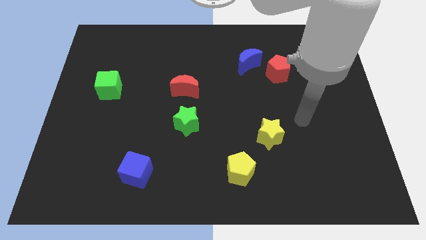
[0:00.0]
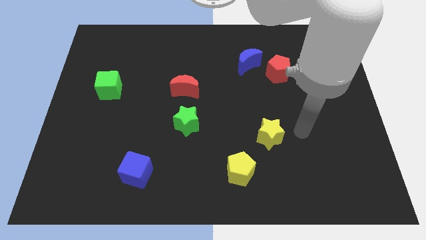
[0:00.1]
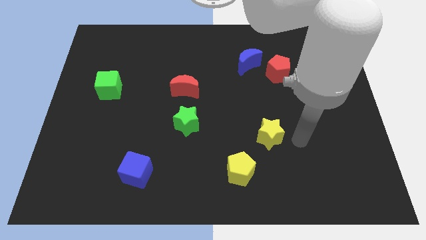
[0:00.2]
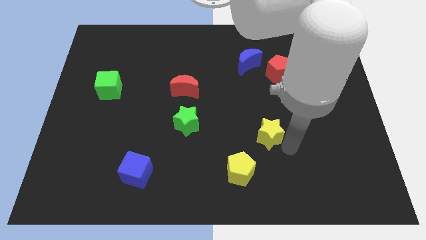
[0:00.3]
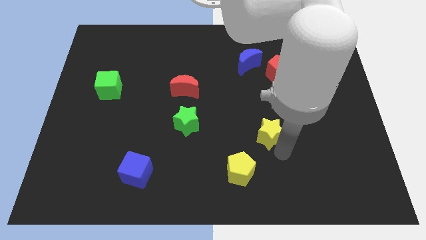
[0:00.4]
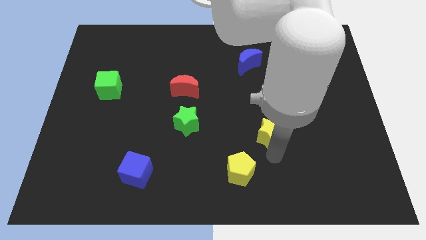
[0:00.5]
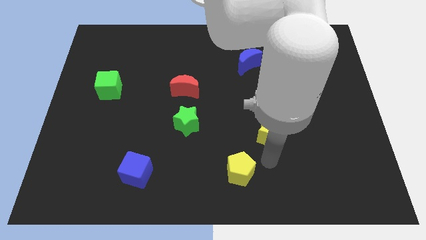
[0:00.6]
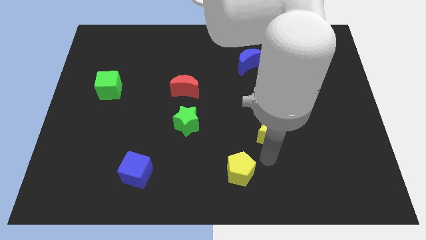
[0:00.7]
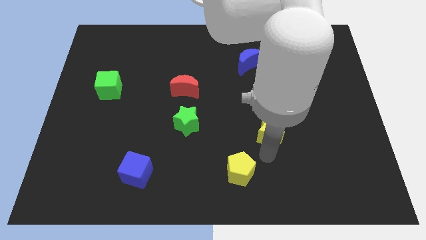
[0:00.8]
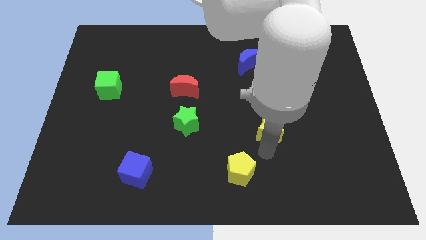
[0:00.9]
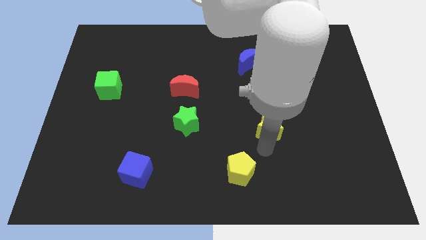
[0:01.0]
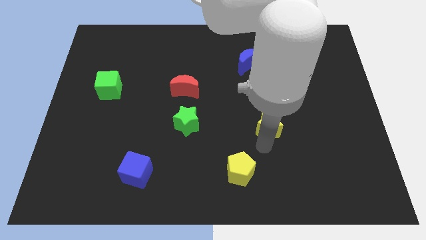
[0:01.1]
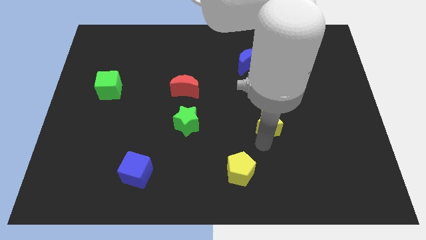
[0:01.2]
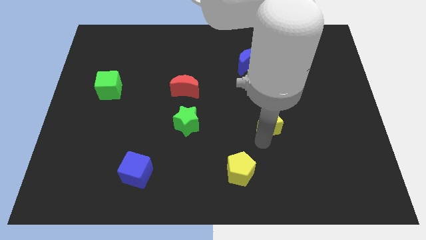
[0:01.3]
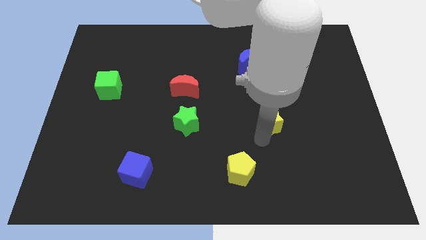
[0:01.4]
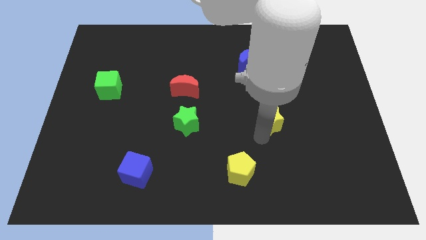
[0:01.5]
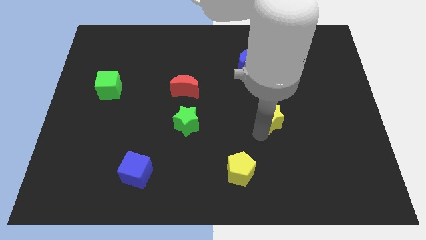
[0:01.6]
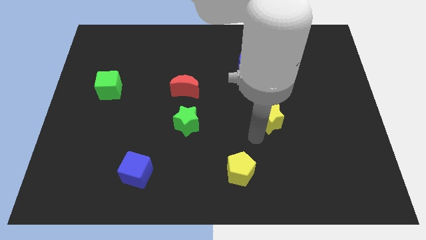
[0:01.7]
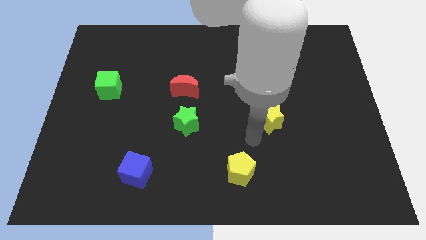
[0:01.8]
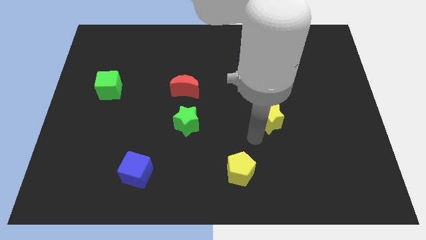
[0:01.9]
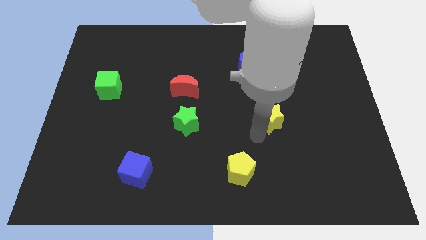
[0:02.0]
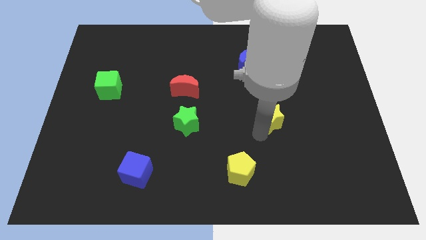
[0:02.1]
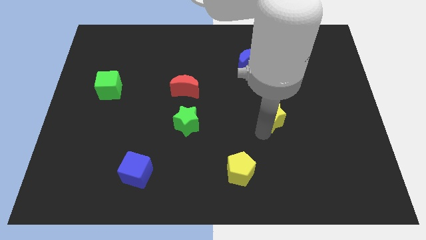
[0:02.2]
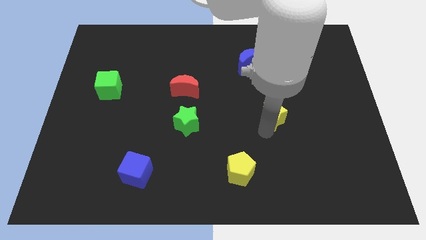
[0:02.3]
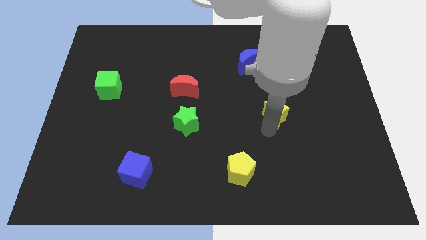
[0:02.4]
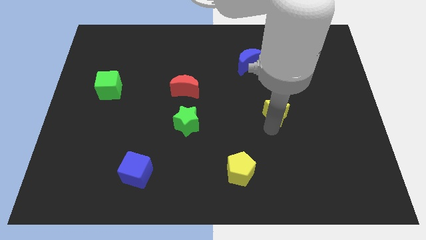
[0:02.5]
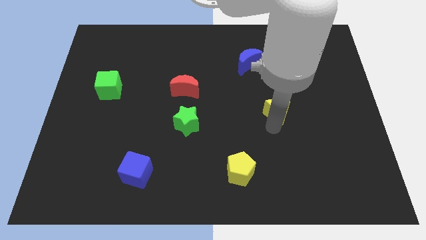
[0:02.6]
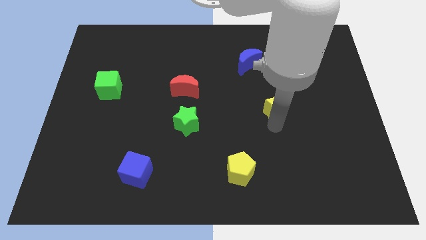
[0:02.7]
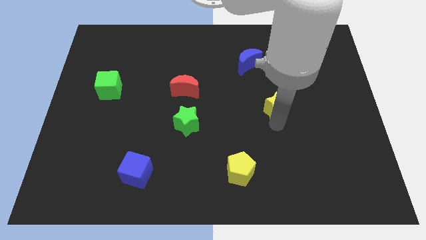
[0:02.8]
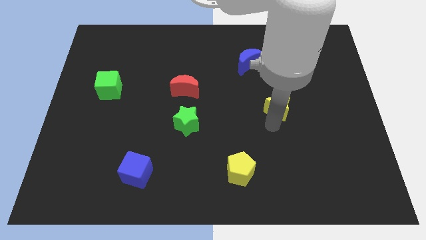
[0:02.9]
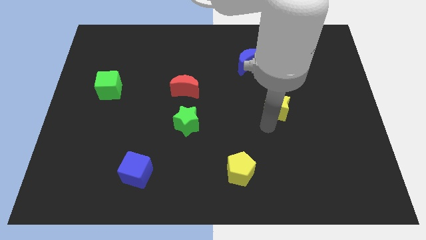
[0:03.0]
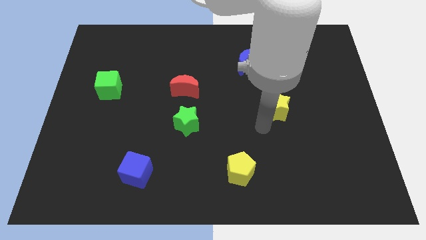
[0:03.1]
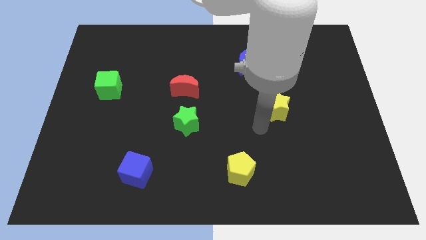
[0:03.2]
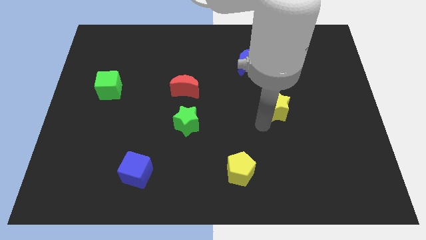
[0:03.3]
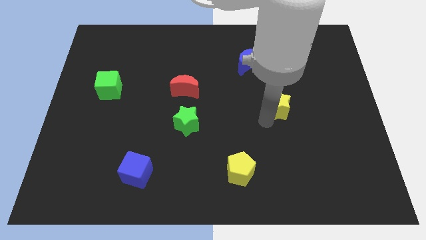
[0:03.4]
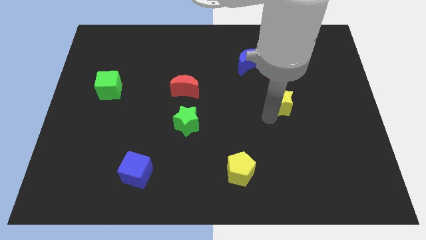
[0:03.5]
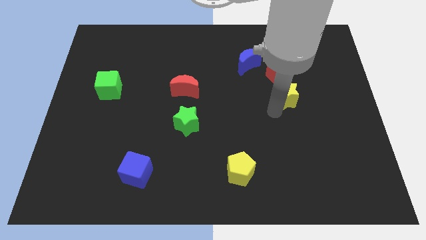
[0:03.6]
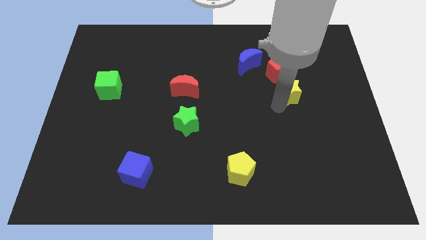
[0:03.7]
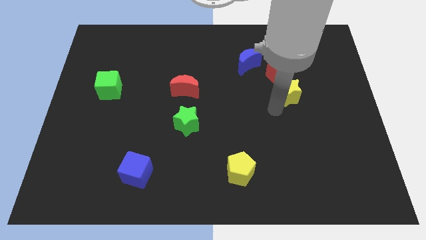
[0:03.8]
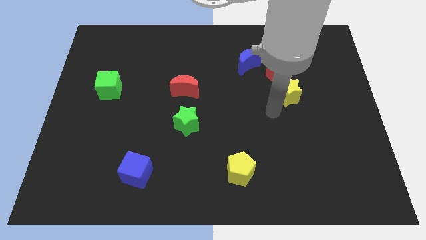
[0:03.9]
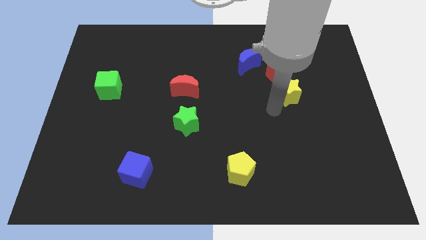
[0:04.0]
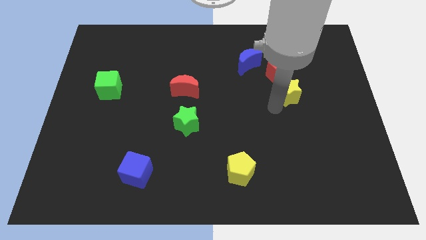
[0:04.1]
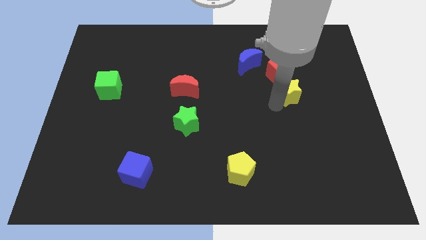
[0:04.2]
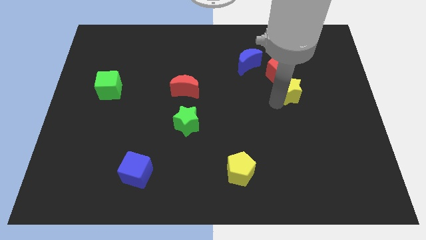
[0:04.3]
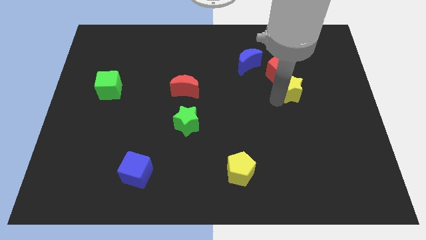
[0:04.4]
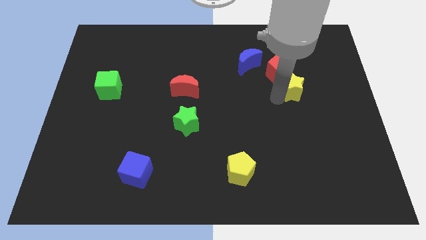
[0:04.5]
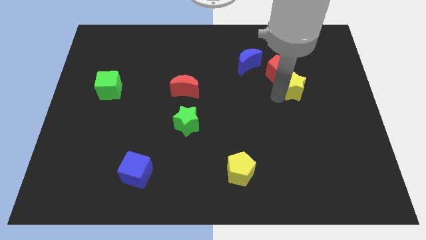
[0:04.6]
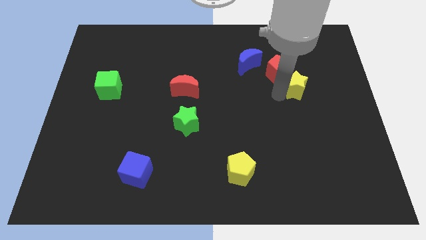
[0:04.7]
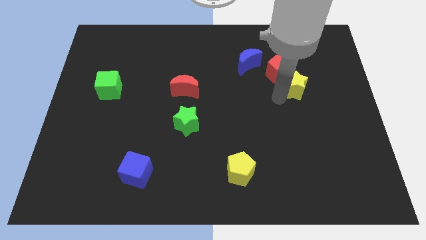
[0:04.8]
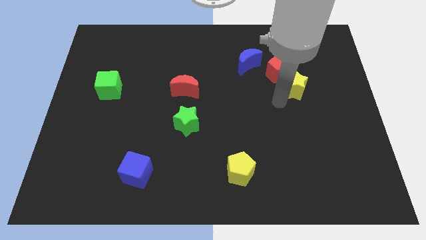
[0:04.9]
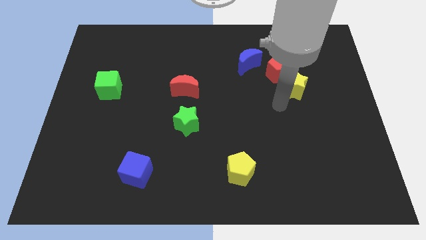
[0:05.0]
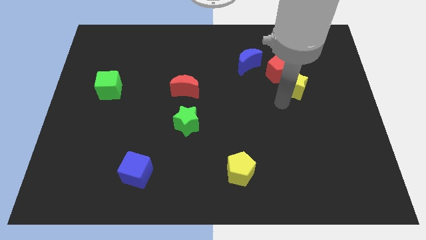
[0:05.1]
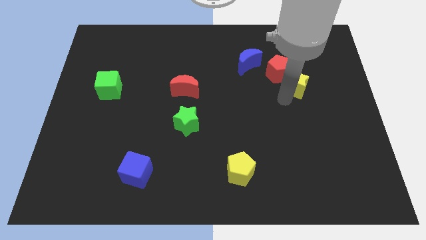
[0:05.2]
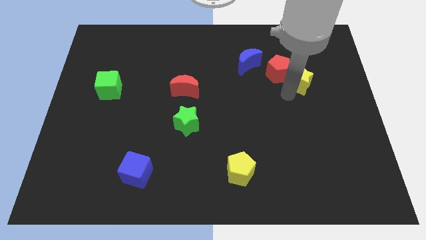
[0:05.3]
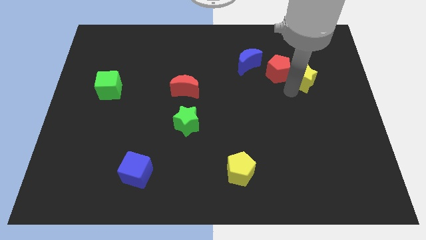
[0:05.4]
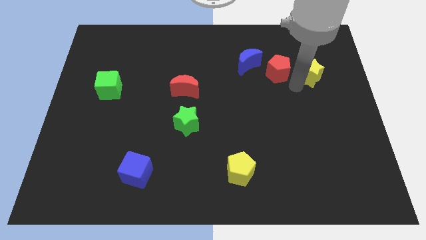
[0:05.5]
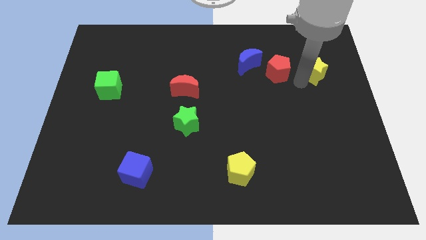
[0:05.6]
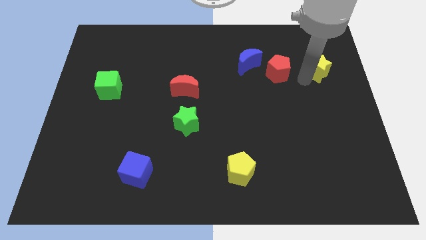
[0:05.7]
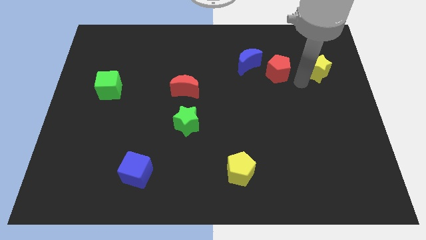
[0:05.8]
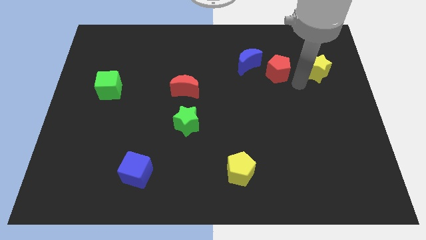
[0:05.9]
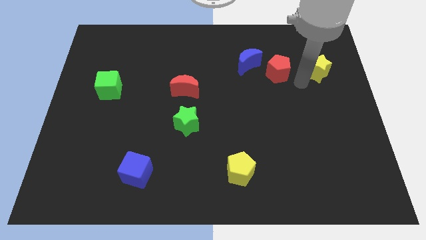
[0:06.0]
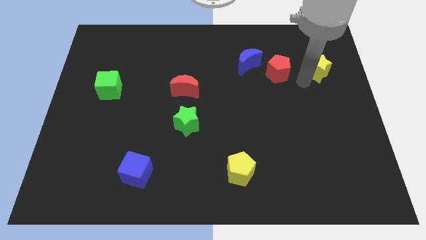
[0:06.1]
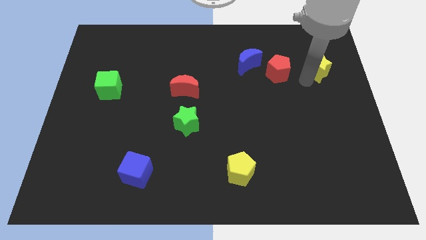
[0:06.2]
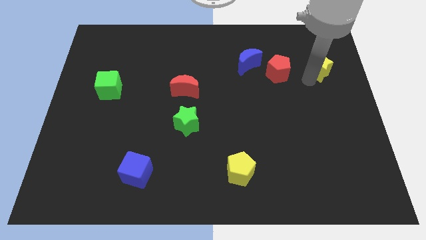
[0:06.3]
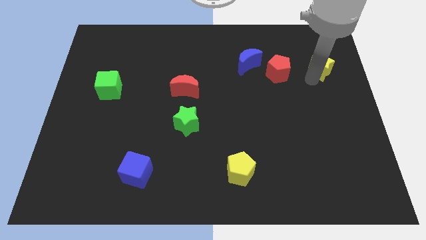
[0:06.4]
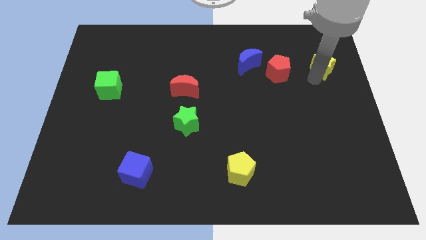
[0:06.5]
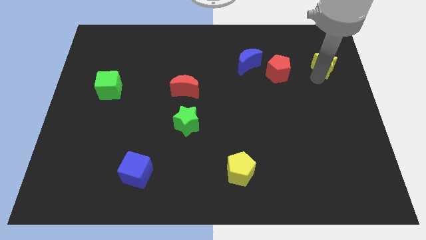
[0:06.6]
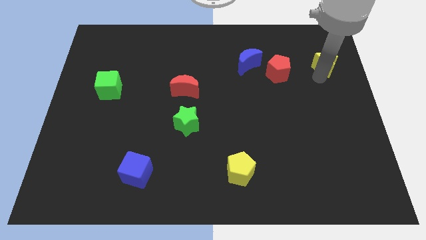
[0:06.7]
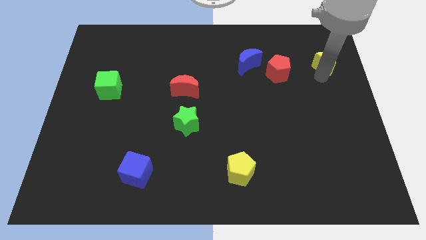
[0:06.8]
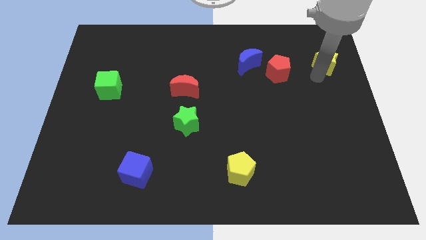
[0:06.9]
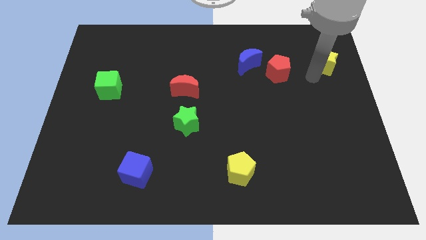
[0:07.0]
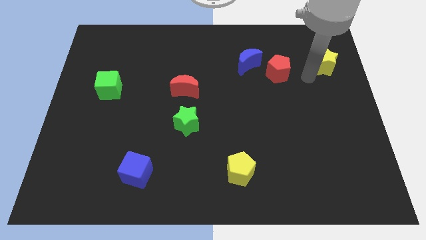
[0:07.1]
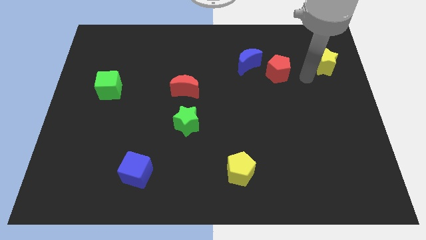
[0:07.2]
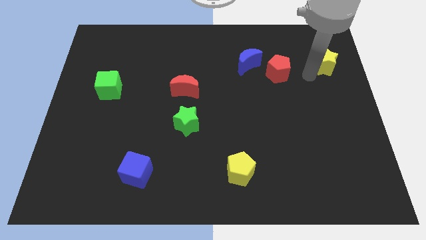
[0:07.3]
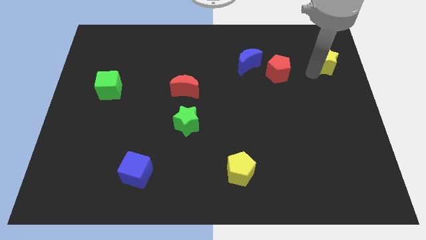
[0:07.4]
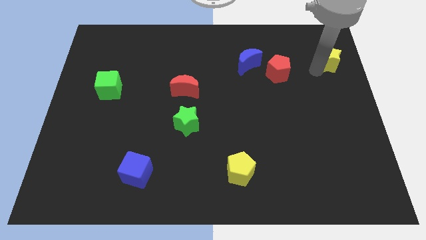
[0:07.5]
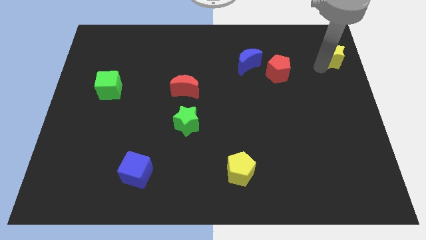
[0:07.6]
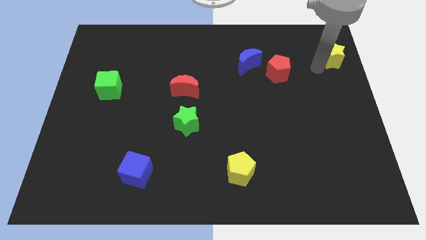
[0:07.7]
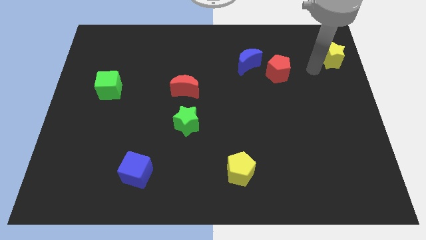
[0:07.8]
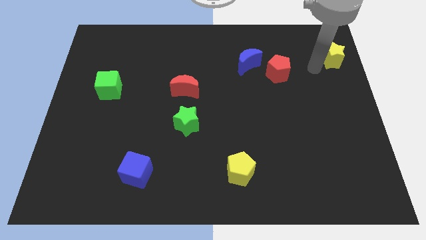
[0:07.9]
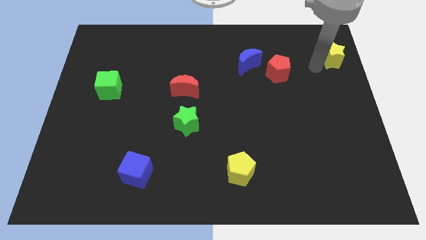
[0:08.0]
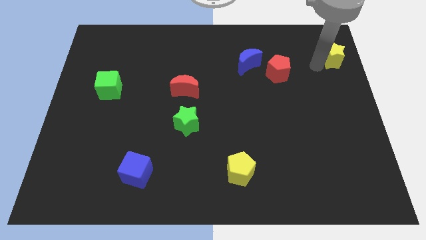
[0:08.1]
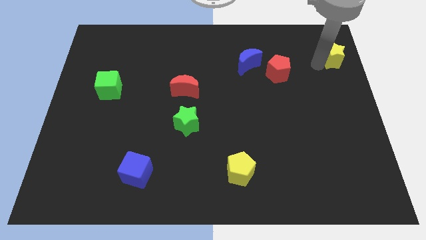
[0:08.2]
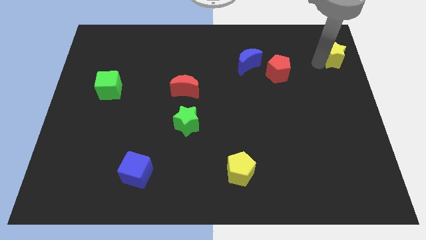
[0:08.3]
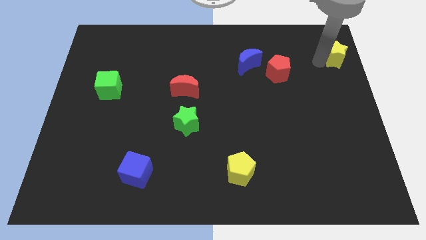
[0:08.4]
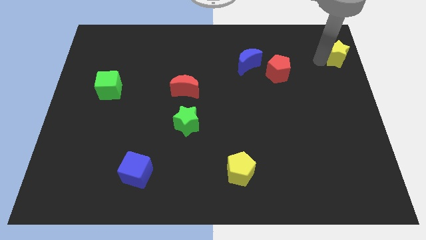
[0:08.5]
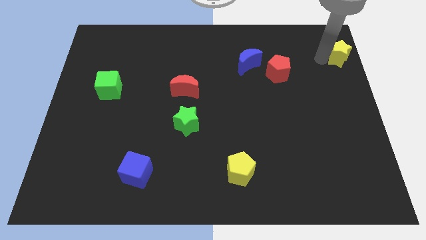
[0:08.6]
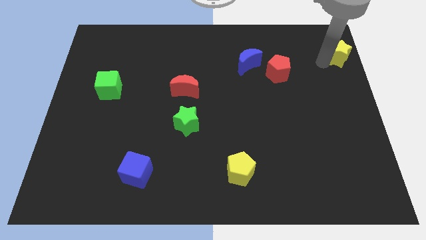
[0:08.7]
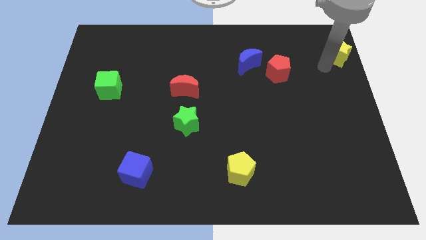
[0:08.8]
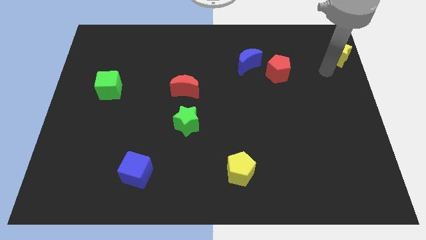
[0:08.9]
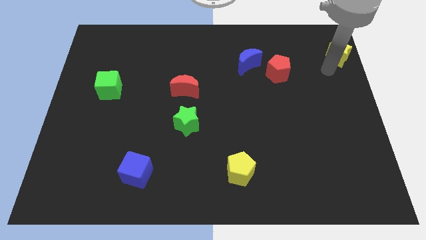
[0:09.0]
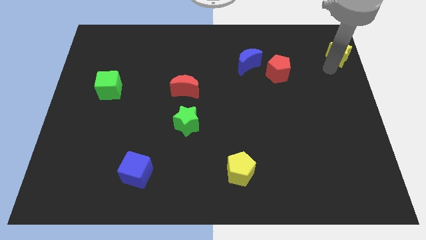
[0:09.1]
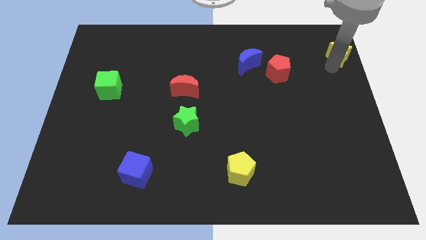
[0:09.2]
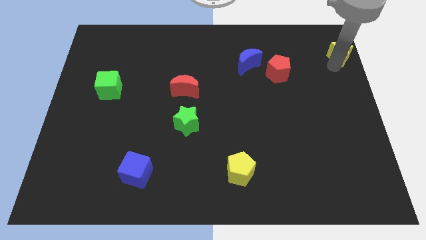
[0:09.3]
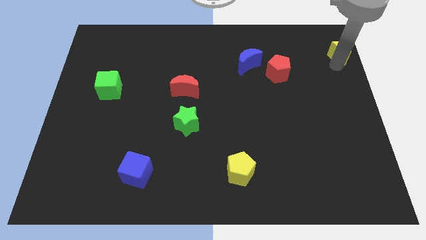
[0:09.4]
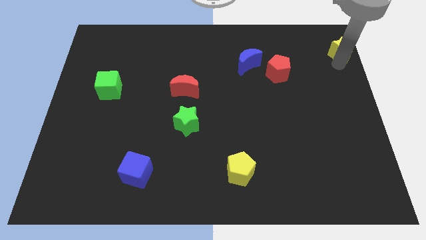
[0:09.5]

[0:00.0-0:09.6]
move the yellow star to the top right of the board
